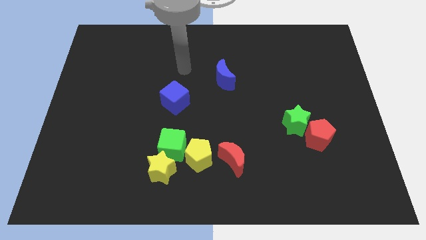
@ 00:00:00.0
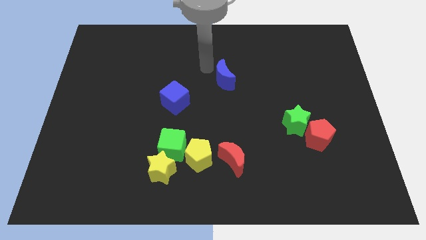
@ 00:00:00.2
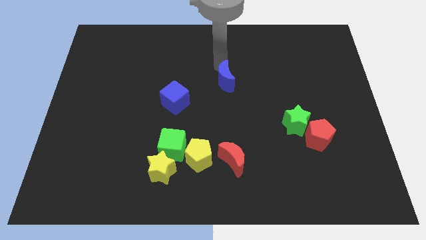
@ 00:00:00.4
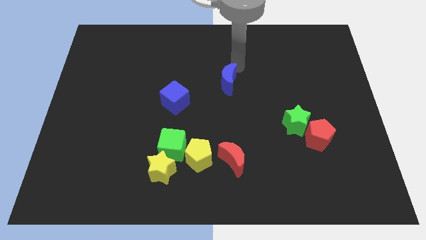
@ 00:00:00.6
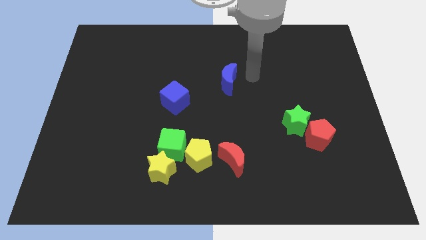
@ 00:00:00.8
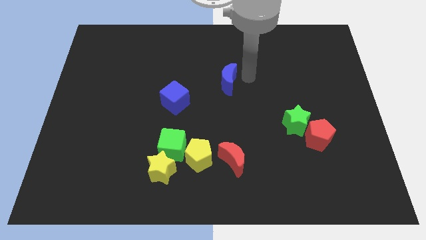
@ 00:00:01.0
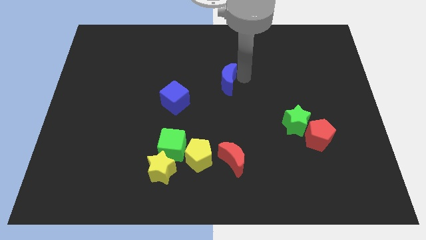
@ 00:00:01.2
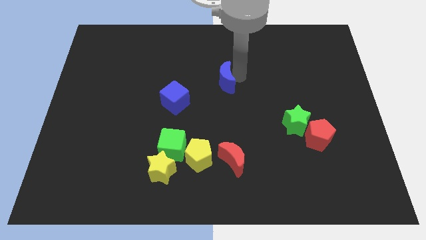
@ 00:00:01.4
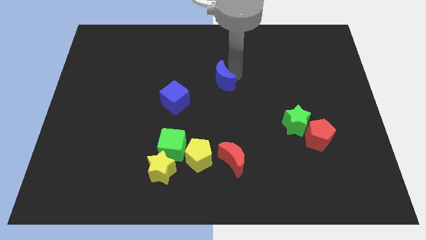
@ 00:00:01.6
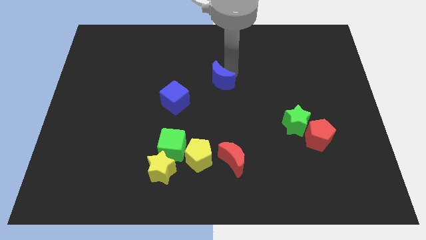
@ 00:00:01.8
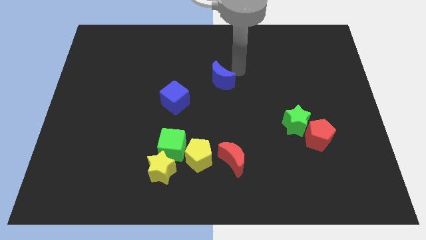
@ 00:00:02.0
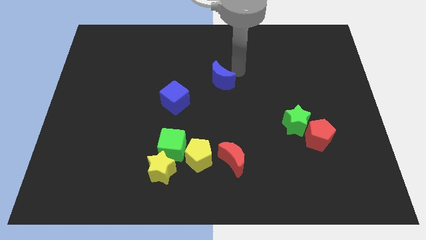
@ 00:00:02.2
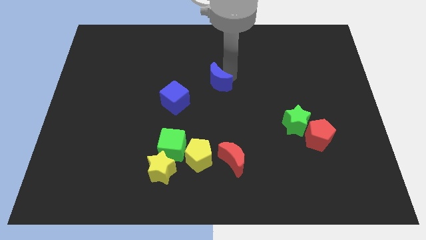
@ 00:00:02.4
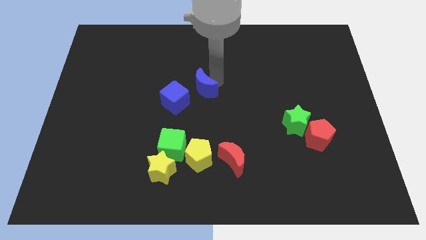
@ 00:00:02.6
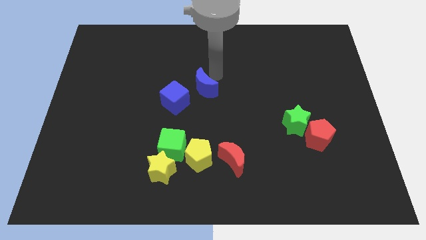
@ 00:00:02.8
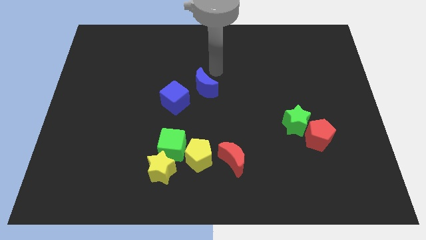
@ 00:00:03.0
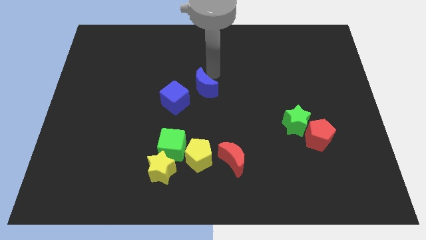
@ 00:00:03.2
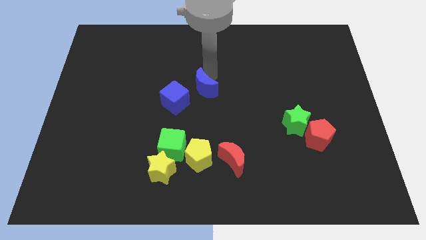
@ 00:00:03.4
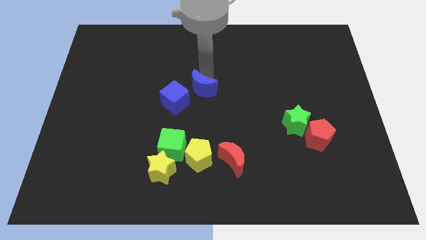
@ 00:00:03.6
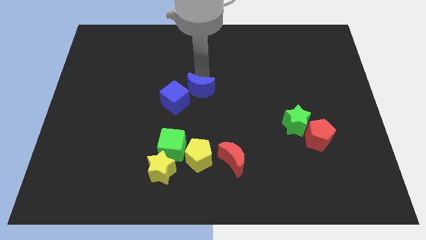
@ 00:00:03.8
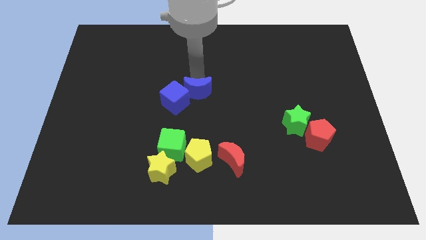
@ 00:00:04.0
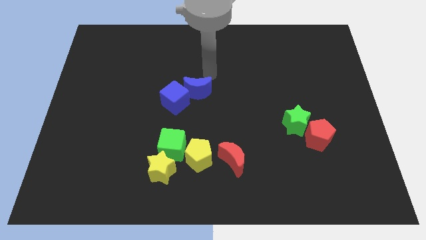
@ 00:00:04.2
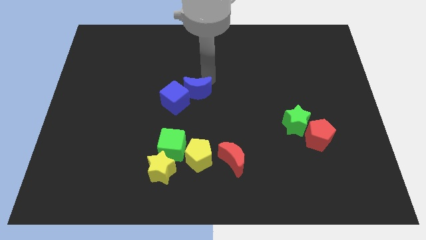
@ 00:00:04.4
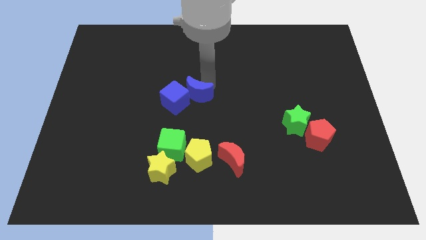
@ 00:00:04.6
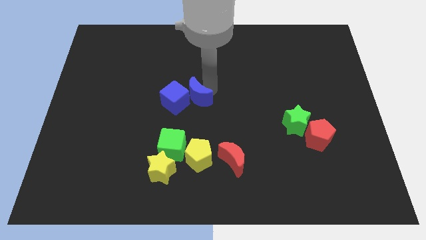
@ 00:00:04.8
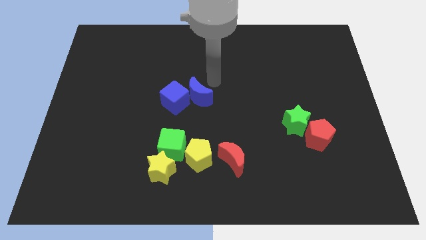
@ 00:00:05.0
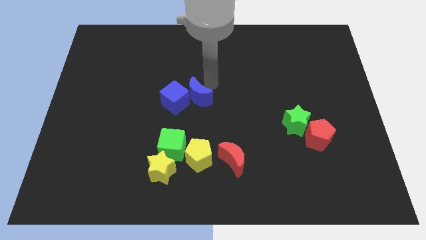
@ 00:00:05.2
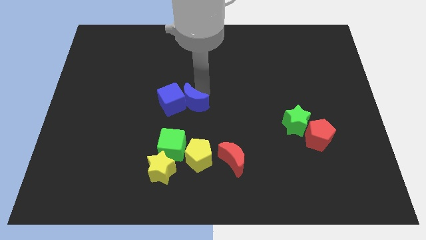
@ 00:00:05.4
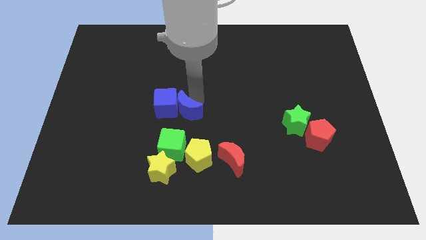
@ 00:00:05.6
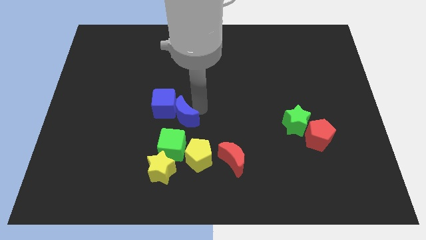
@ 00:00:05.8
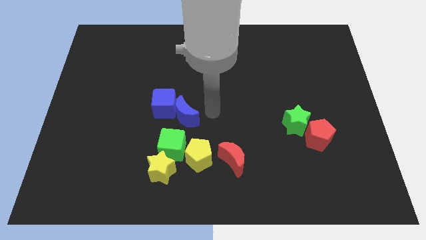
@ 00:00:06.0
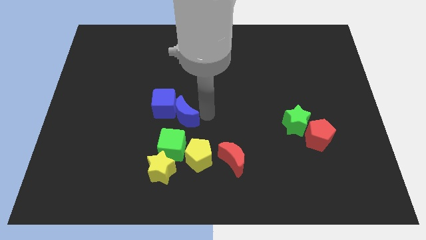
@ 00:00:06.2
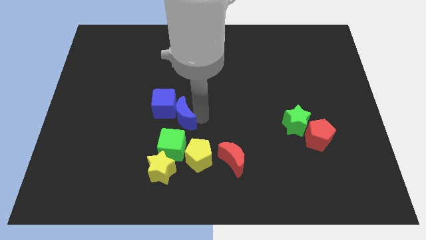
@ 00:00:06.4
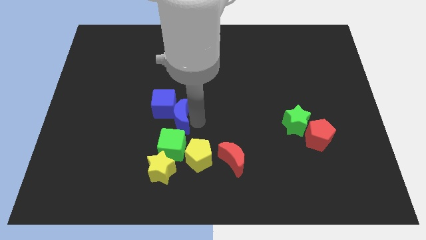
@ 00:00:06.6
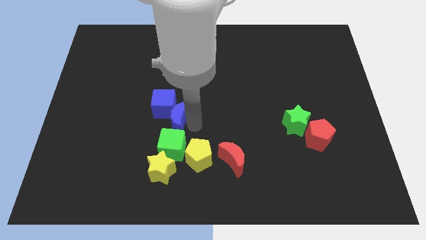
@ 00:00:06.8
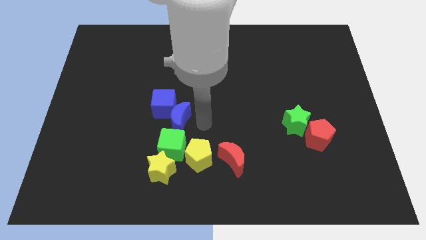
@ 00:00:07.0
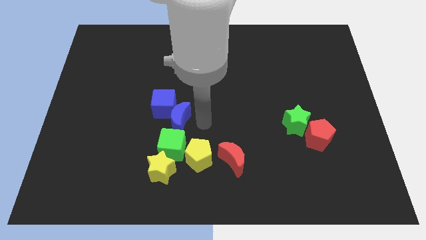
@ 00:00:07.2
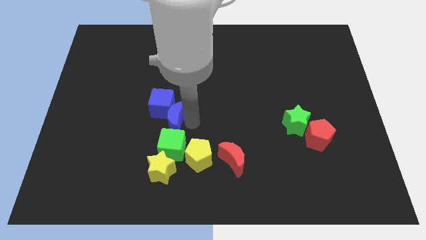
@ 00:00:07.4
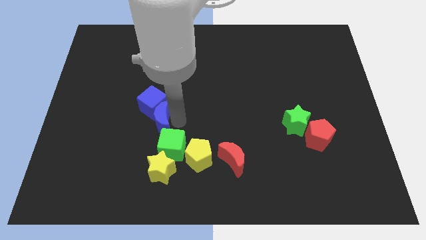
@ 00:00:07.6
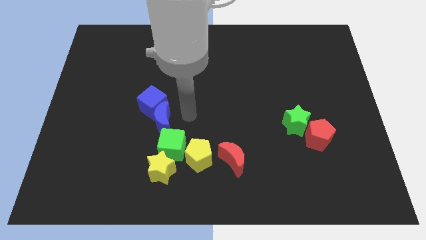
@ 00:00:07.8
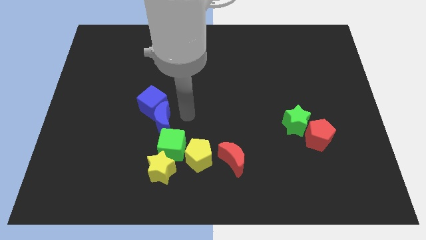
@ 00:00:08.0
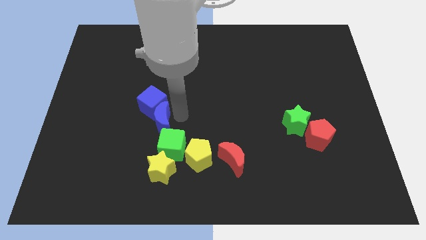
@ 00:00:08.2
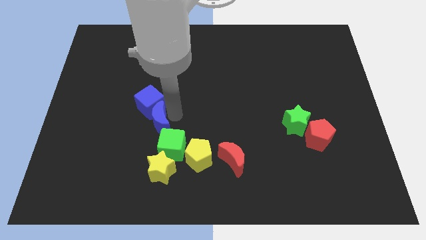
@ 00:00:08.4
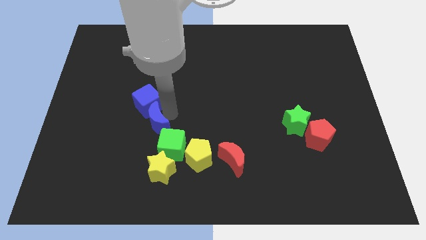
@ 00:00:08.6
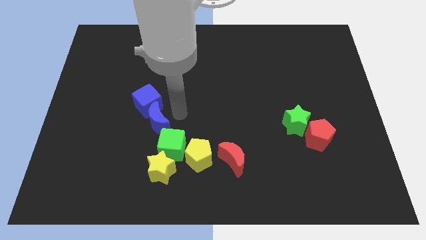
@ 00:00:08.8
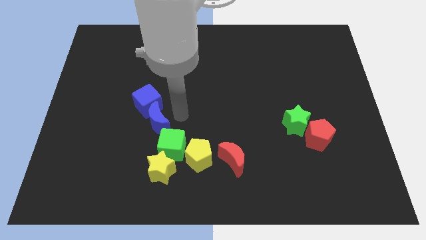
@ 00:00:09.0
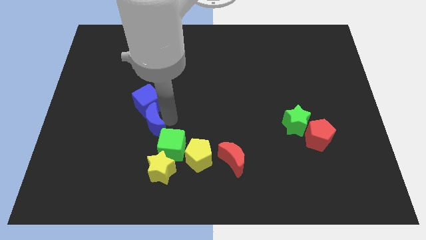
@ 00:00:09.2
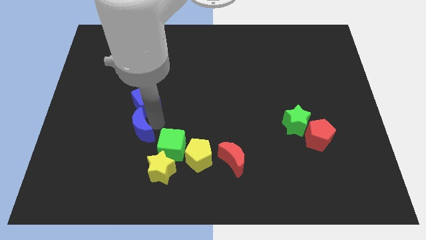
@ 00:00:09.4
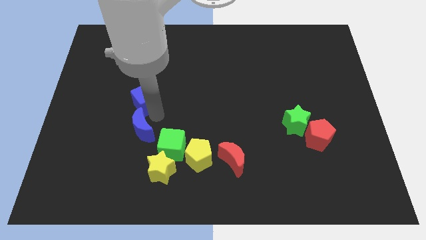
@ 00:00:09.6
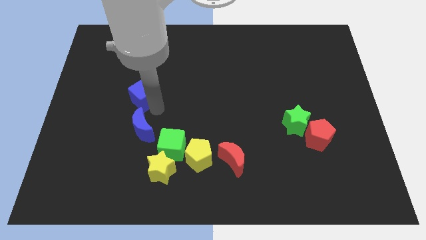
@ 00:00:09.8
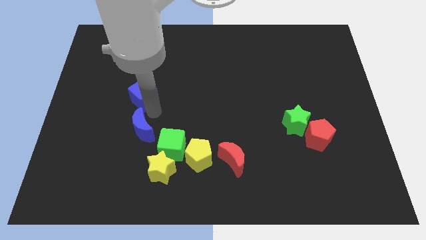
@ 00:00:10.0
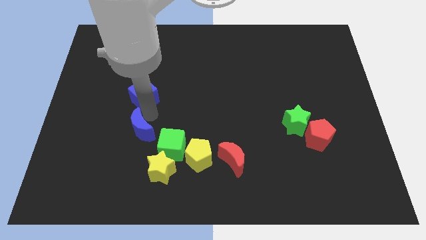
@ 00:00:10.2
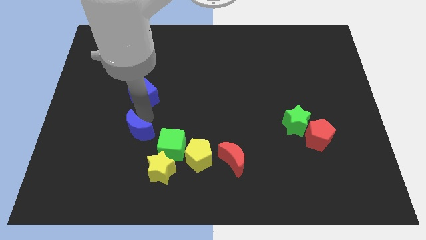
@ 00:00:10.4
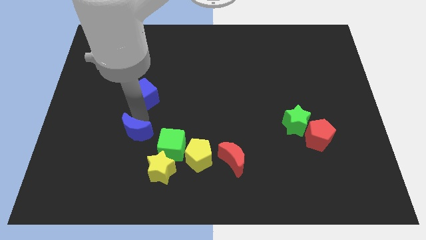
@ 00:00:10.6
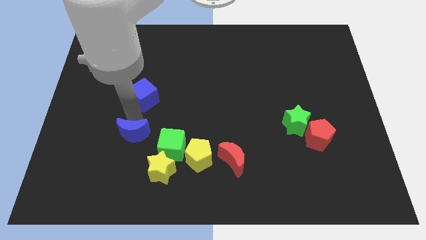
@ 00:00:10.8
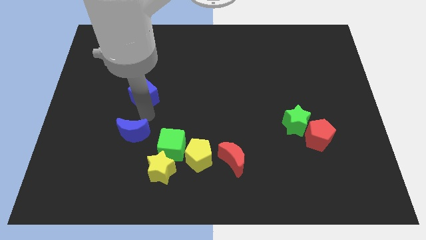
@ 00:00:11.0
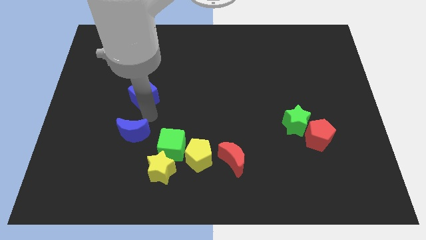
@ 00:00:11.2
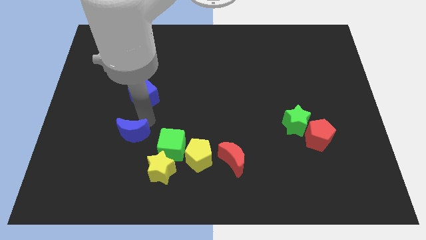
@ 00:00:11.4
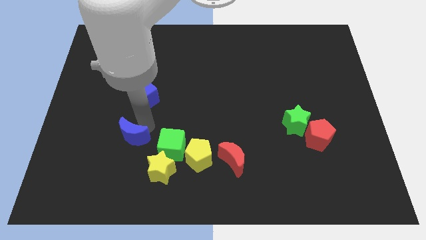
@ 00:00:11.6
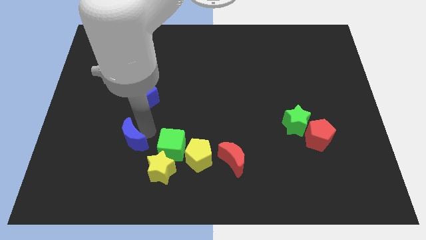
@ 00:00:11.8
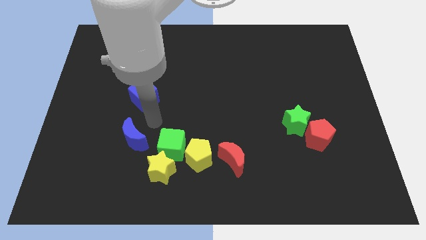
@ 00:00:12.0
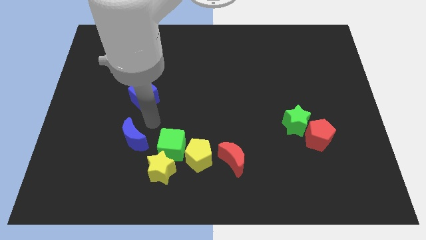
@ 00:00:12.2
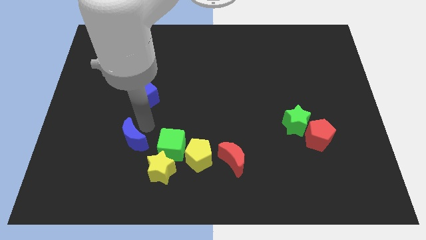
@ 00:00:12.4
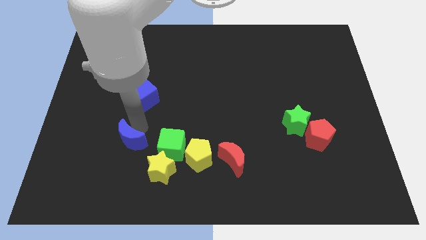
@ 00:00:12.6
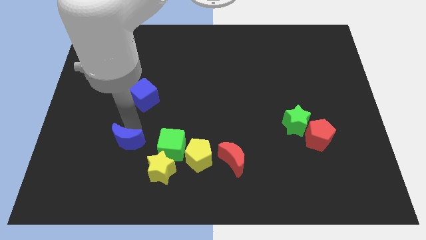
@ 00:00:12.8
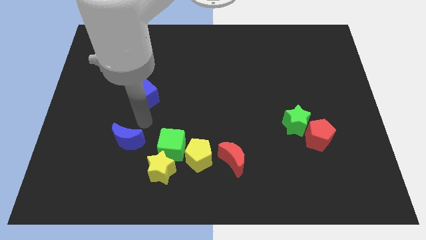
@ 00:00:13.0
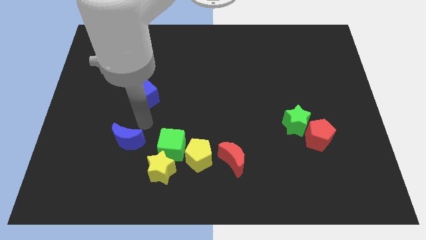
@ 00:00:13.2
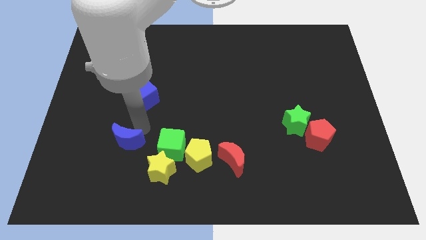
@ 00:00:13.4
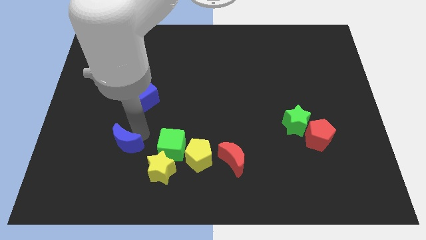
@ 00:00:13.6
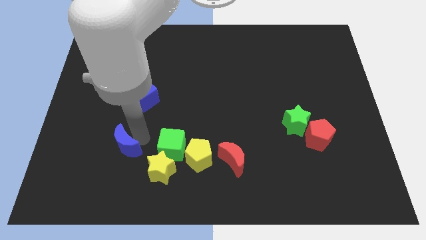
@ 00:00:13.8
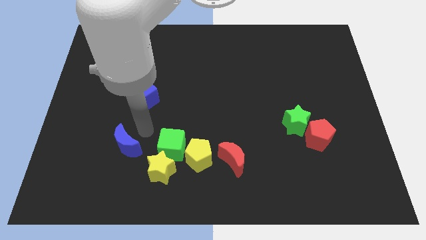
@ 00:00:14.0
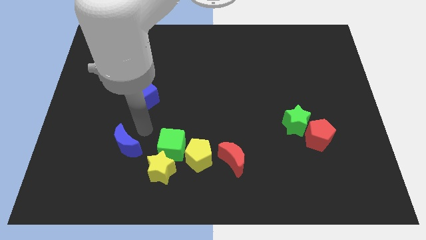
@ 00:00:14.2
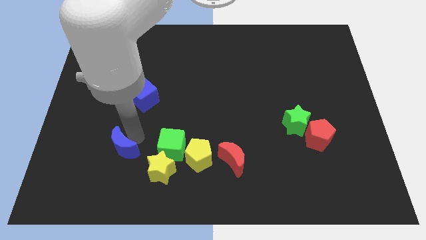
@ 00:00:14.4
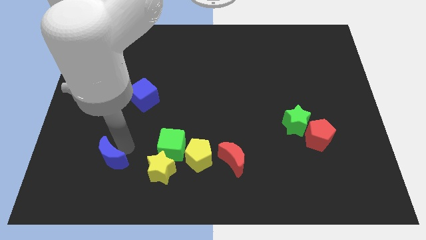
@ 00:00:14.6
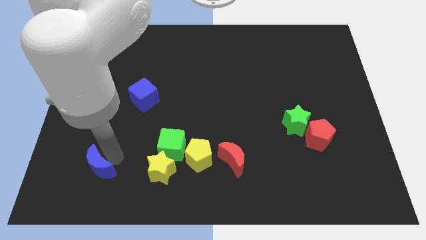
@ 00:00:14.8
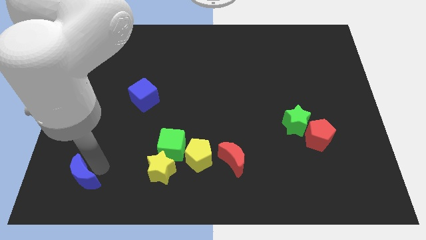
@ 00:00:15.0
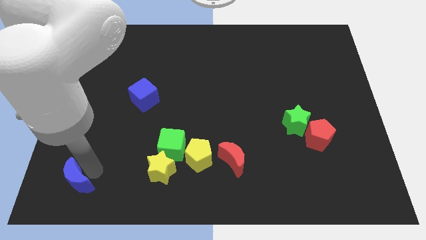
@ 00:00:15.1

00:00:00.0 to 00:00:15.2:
put the blue moon to the lower left corner
